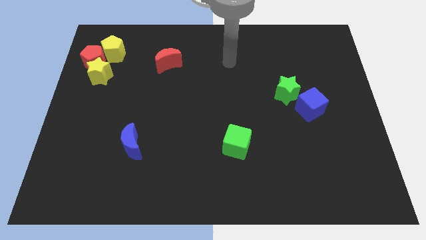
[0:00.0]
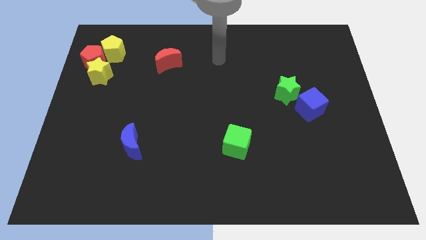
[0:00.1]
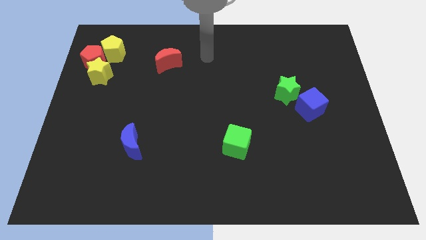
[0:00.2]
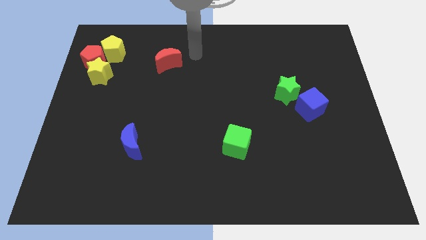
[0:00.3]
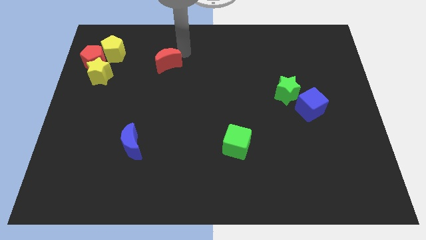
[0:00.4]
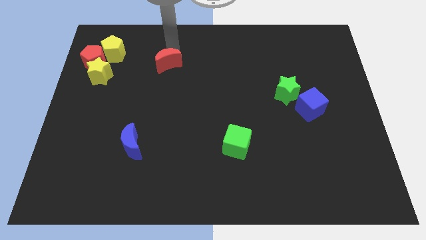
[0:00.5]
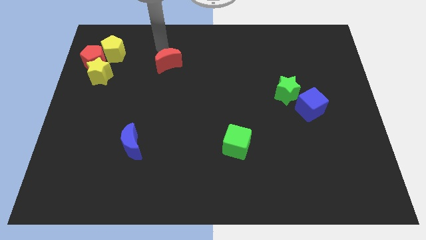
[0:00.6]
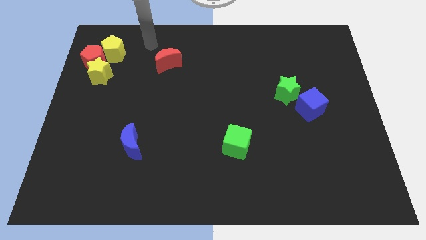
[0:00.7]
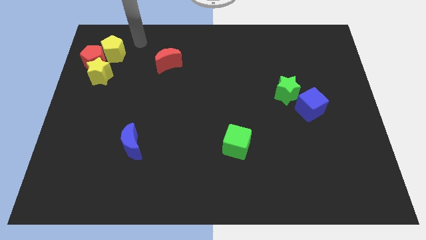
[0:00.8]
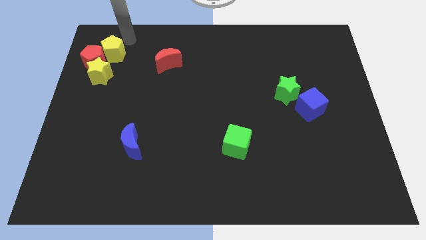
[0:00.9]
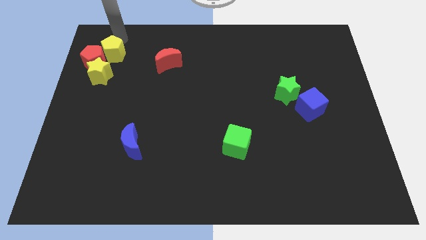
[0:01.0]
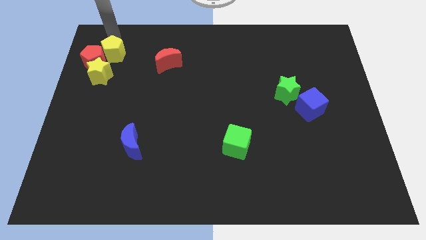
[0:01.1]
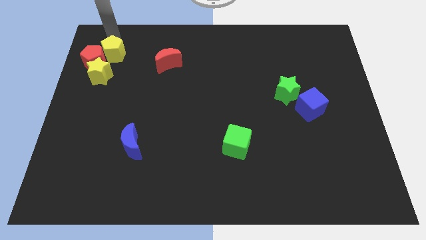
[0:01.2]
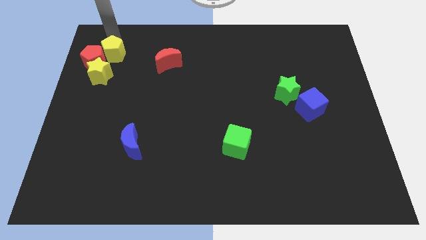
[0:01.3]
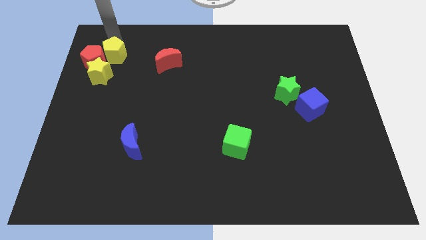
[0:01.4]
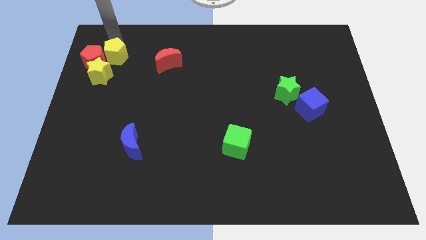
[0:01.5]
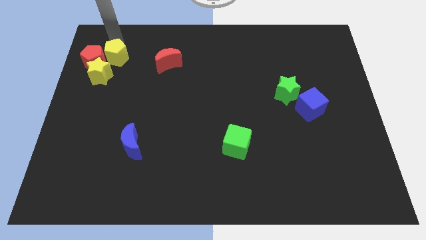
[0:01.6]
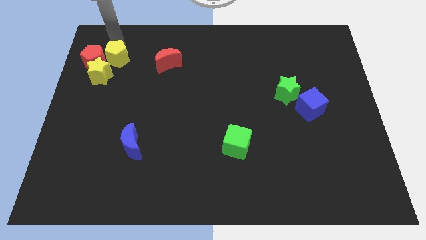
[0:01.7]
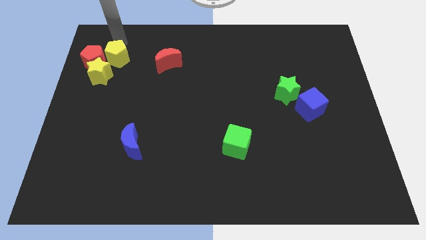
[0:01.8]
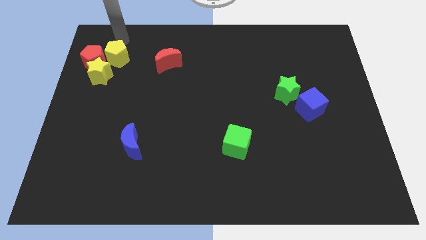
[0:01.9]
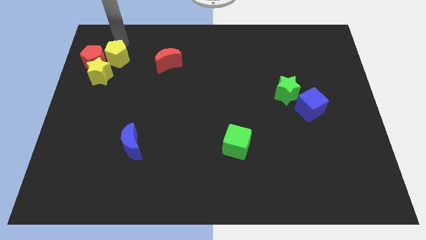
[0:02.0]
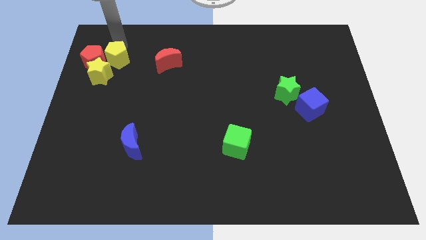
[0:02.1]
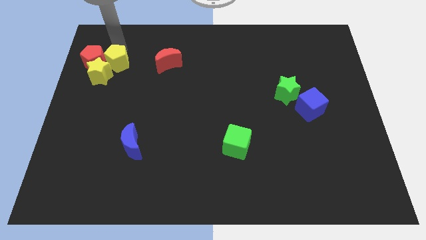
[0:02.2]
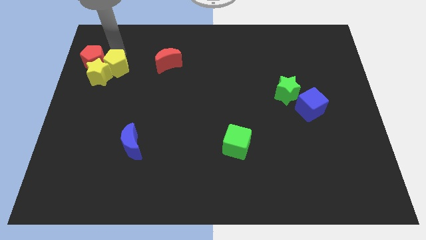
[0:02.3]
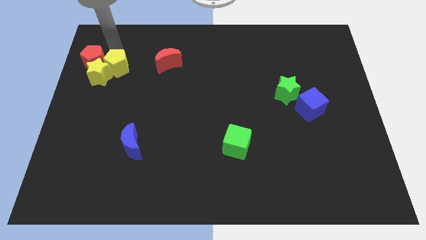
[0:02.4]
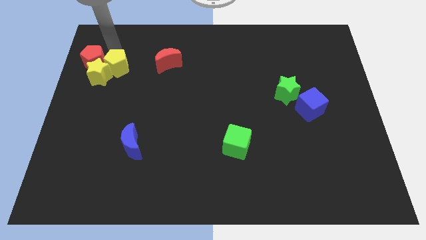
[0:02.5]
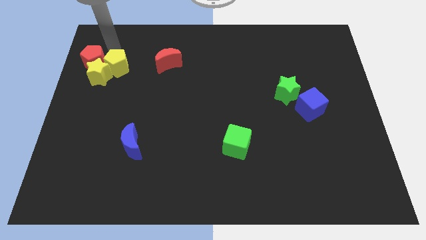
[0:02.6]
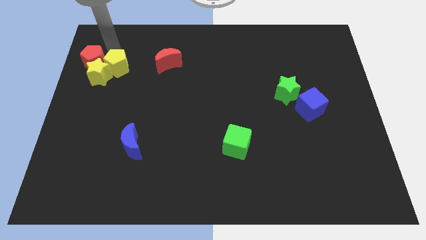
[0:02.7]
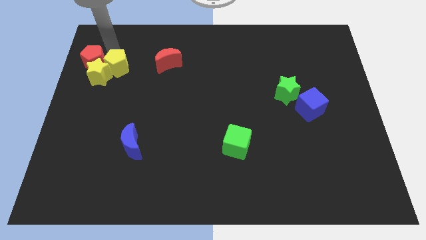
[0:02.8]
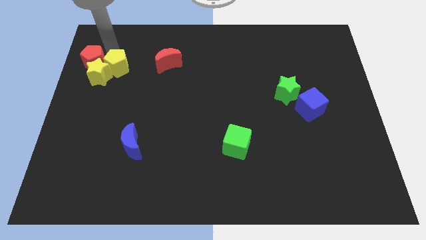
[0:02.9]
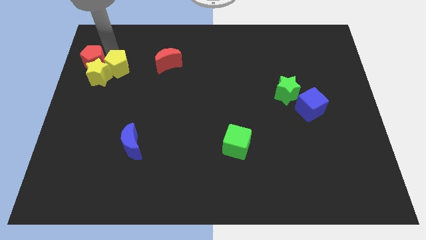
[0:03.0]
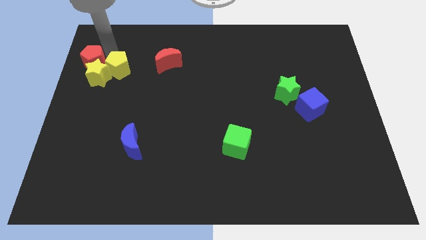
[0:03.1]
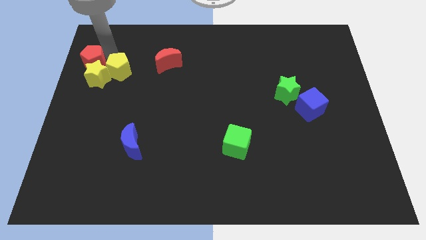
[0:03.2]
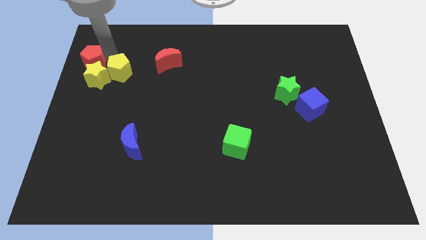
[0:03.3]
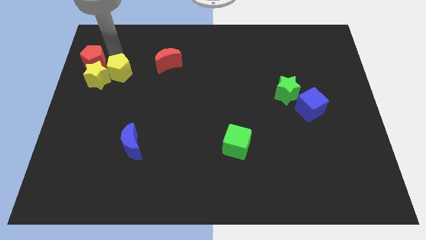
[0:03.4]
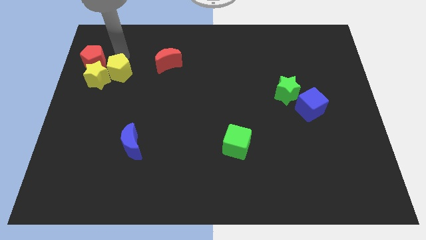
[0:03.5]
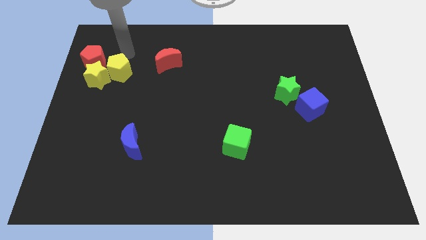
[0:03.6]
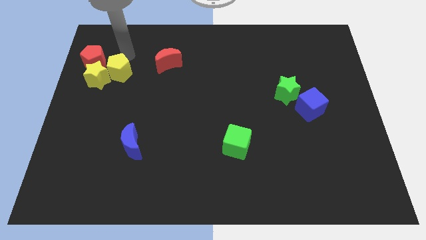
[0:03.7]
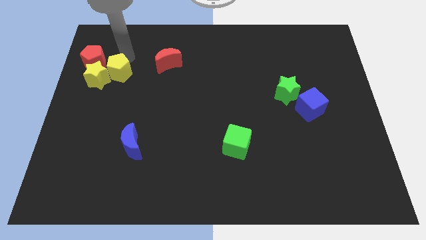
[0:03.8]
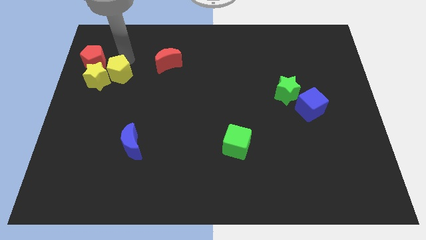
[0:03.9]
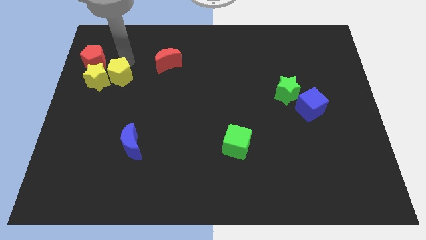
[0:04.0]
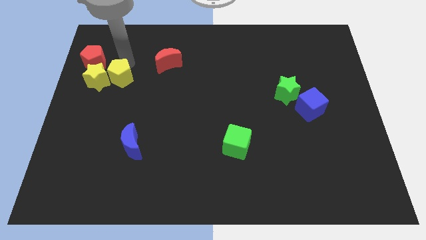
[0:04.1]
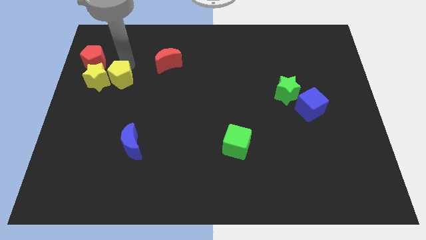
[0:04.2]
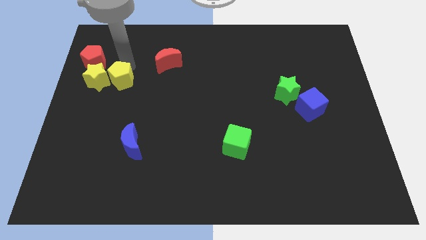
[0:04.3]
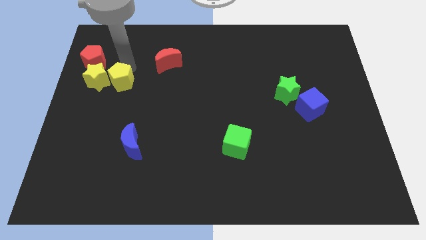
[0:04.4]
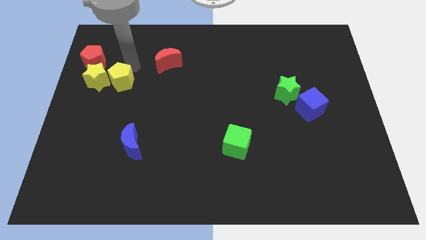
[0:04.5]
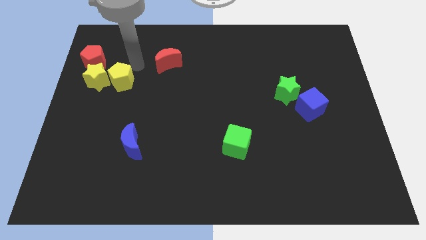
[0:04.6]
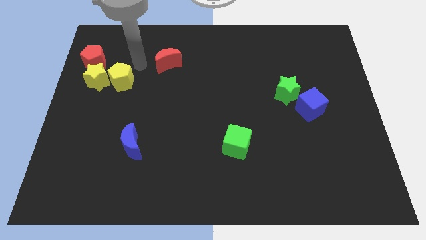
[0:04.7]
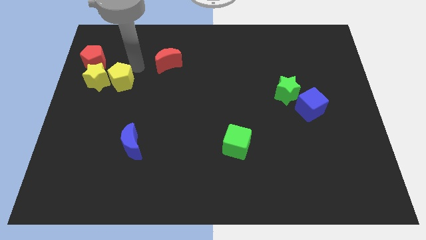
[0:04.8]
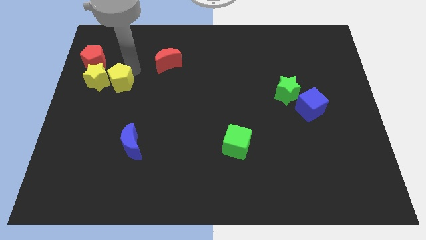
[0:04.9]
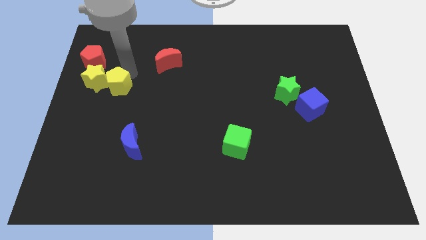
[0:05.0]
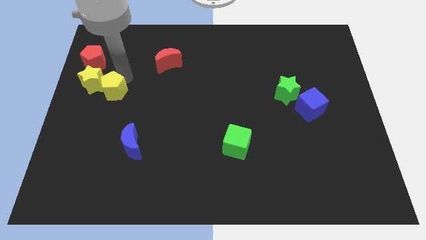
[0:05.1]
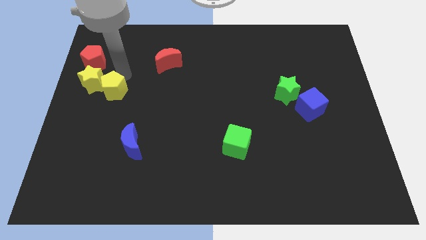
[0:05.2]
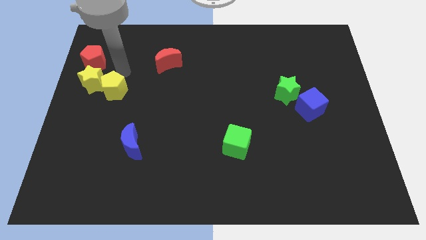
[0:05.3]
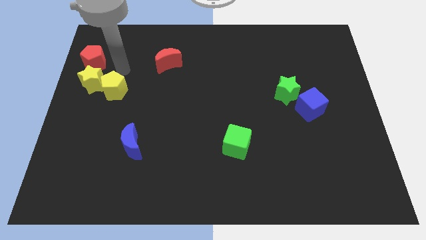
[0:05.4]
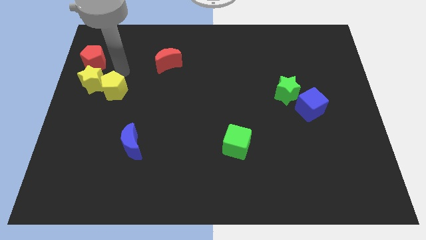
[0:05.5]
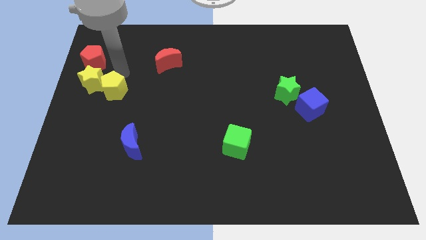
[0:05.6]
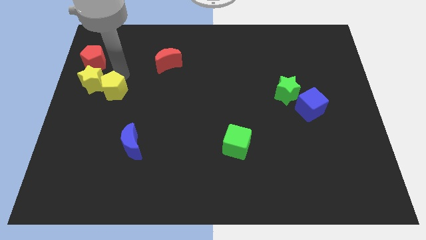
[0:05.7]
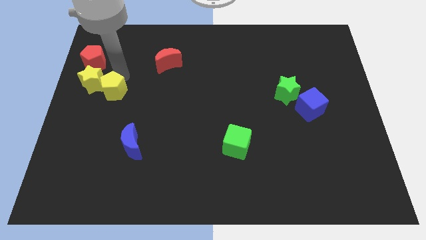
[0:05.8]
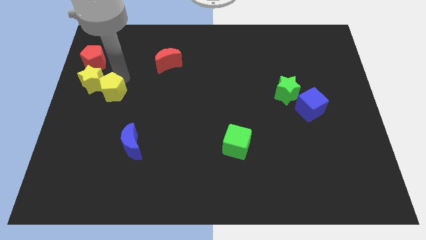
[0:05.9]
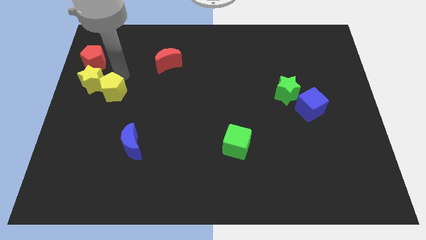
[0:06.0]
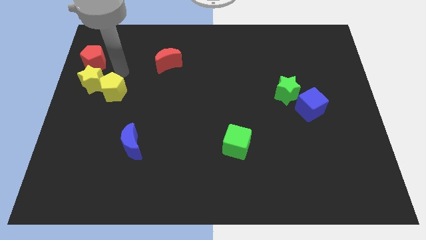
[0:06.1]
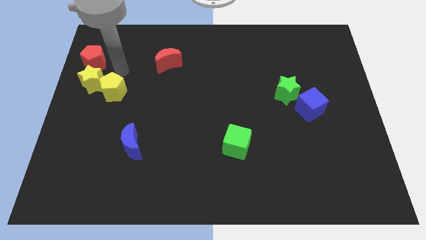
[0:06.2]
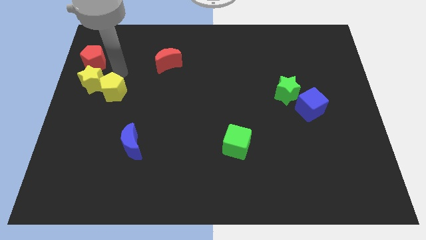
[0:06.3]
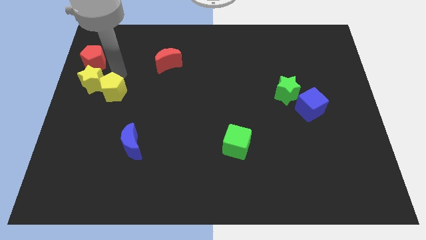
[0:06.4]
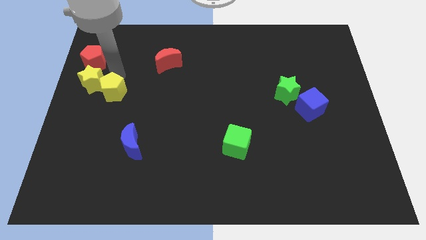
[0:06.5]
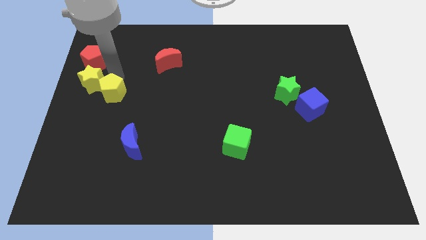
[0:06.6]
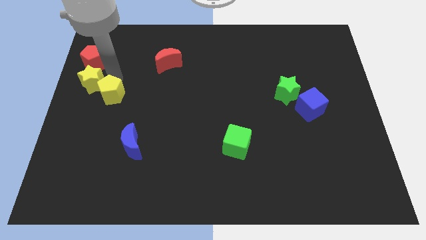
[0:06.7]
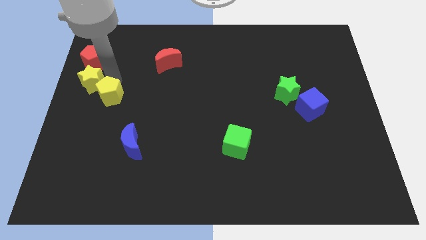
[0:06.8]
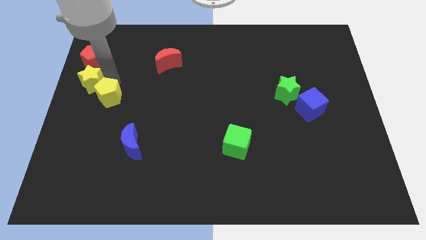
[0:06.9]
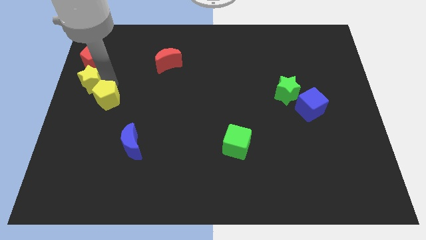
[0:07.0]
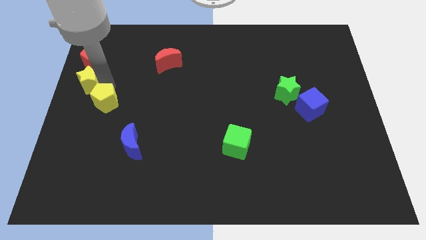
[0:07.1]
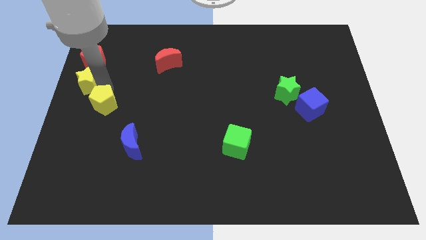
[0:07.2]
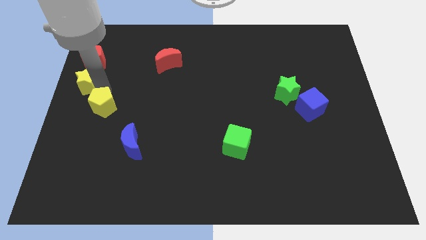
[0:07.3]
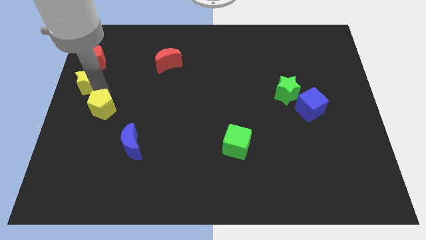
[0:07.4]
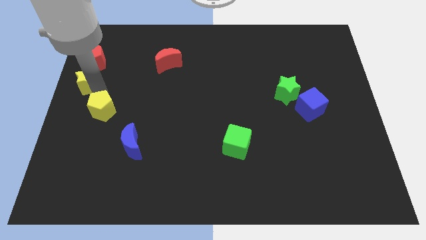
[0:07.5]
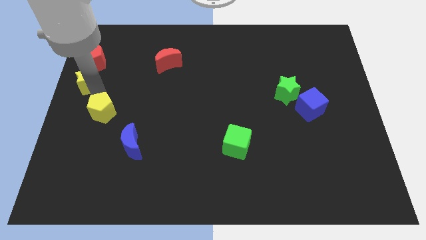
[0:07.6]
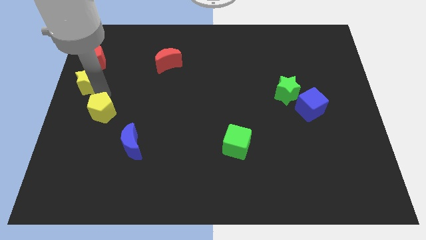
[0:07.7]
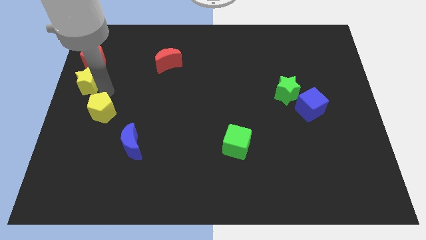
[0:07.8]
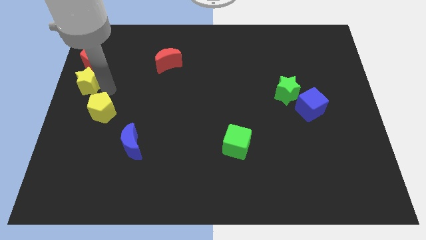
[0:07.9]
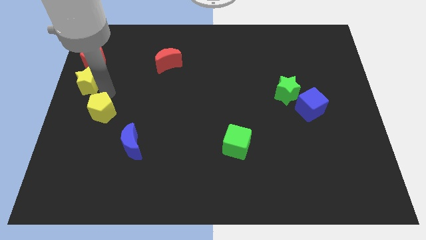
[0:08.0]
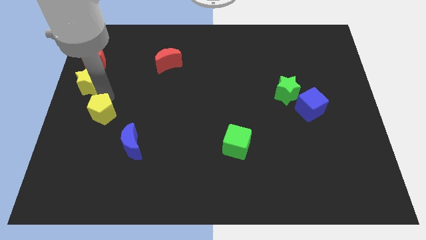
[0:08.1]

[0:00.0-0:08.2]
push the yellow pentagon downwards
